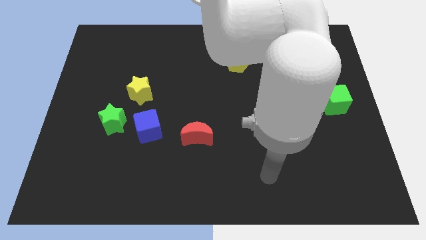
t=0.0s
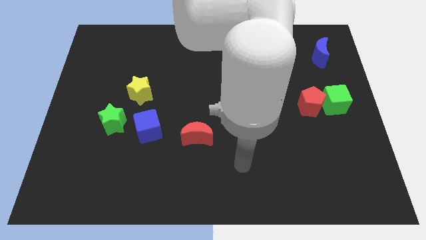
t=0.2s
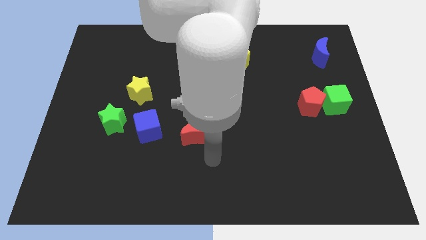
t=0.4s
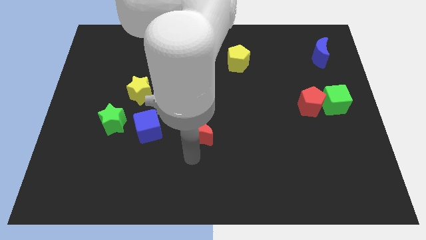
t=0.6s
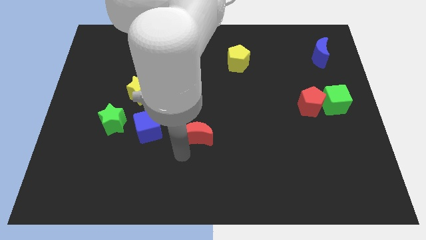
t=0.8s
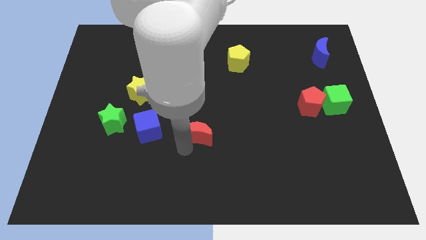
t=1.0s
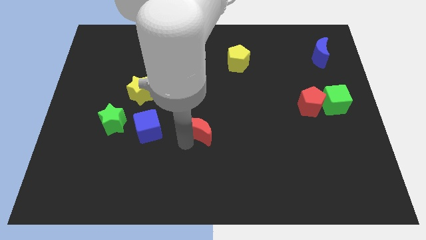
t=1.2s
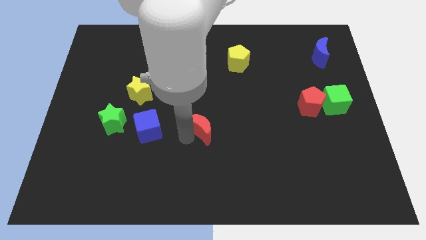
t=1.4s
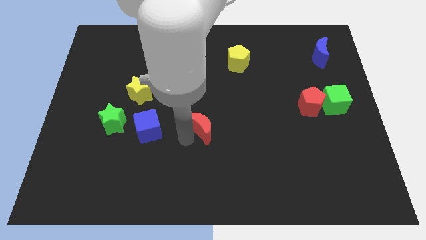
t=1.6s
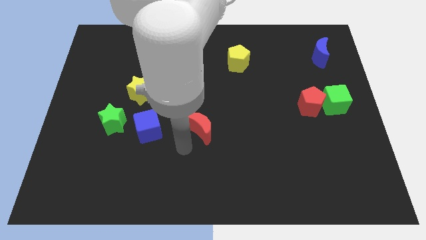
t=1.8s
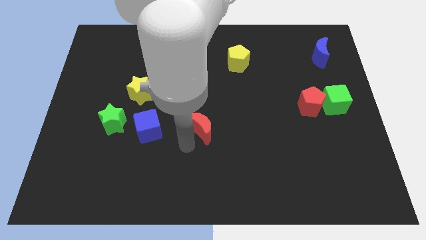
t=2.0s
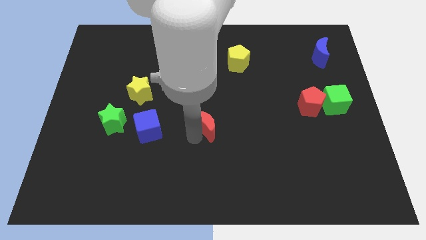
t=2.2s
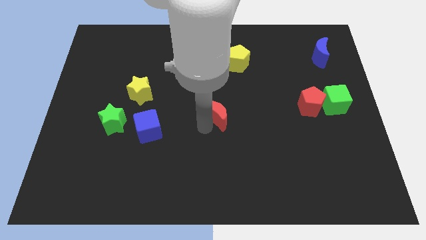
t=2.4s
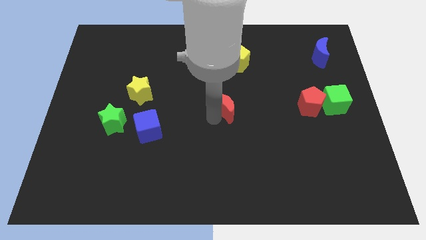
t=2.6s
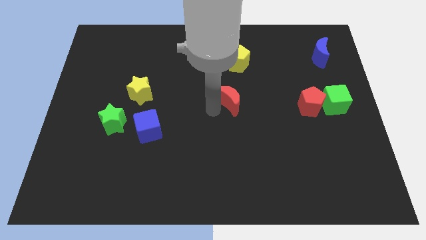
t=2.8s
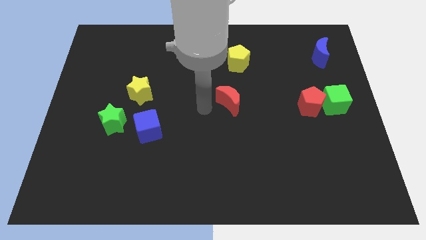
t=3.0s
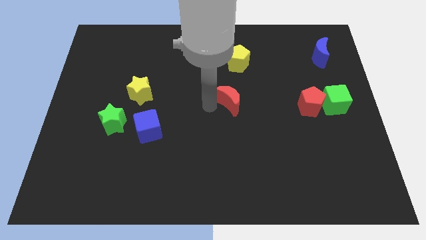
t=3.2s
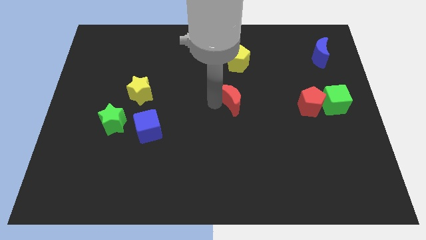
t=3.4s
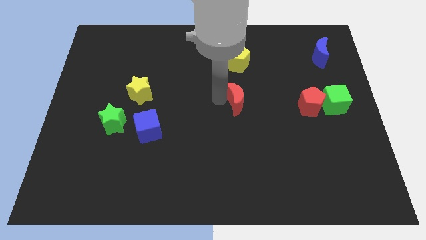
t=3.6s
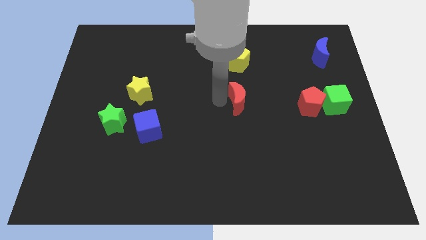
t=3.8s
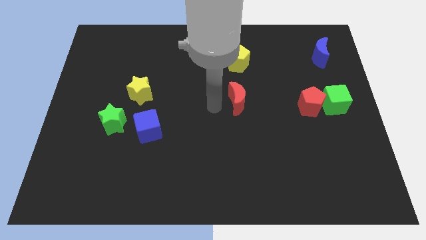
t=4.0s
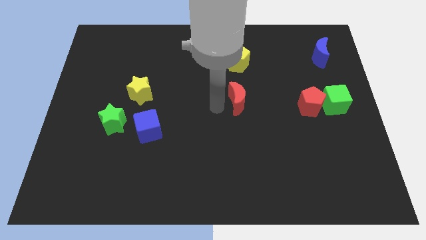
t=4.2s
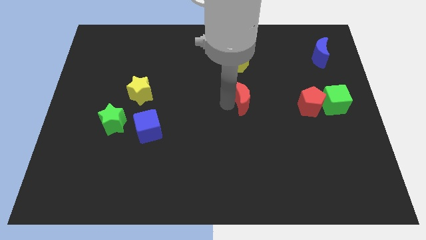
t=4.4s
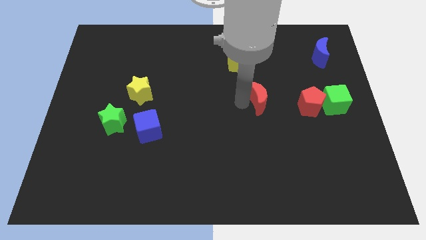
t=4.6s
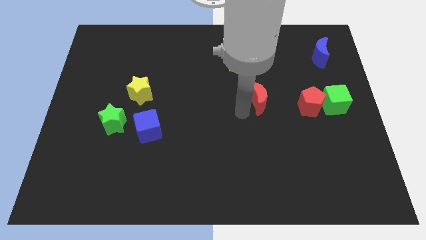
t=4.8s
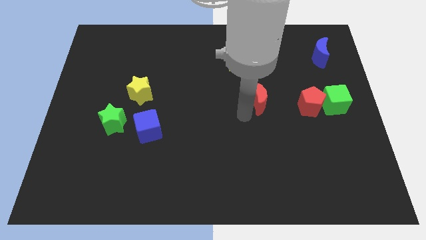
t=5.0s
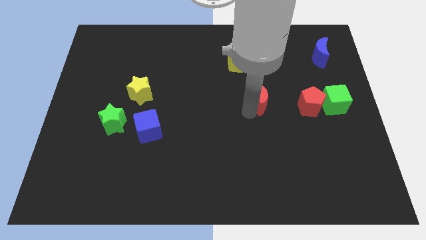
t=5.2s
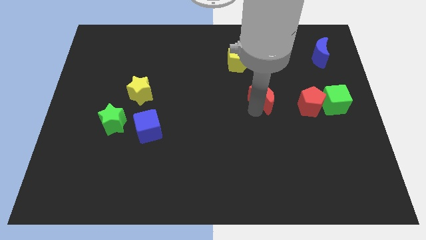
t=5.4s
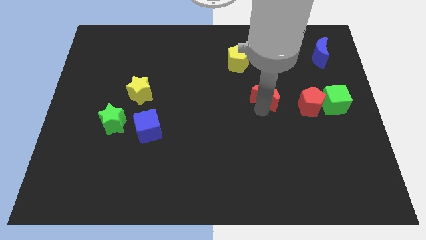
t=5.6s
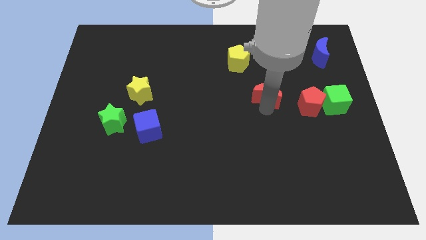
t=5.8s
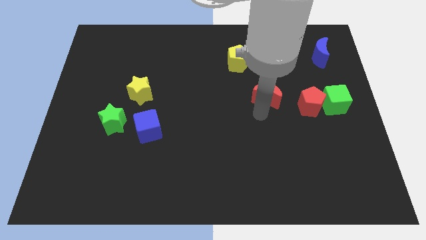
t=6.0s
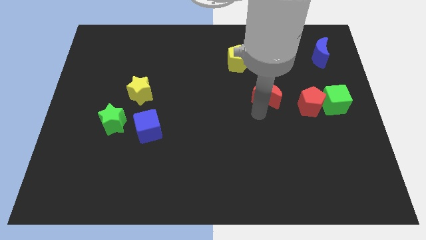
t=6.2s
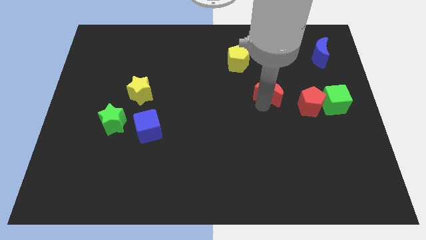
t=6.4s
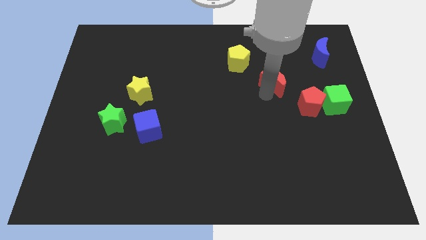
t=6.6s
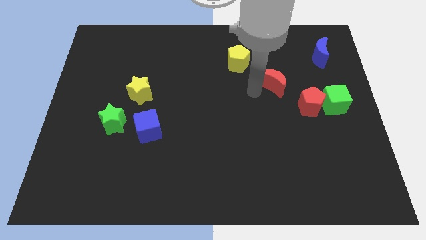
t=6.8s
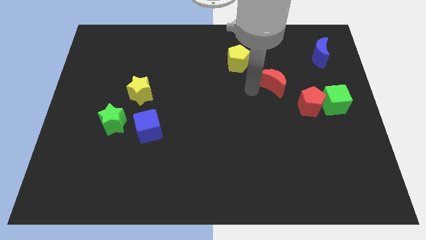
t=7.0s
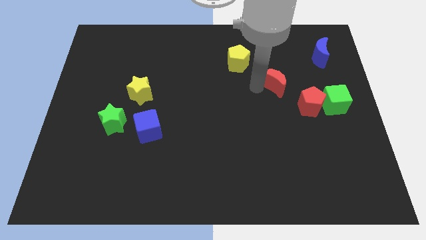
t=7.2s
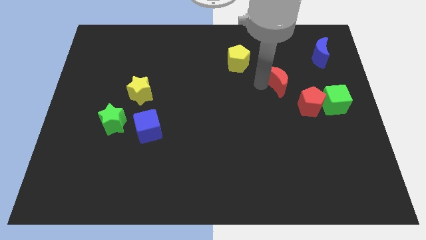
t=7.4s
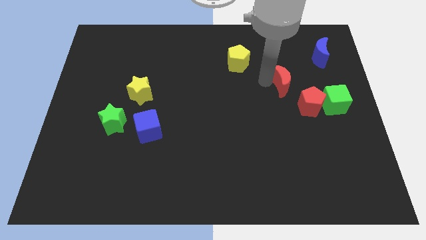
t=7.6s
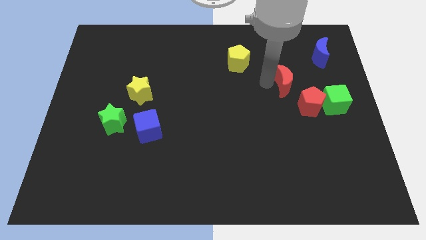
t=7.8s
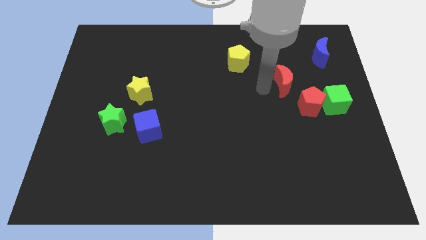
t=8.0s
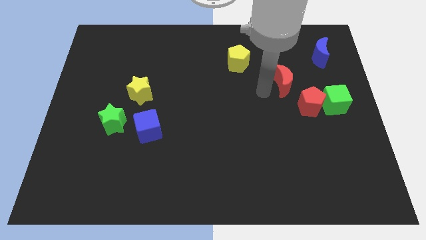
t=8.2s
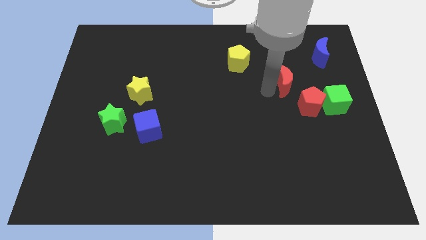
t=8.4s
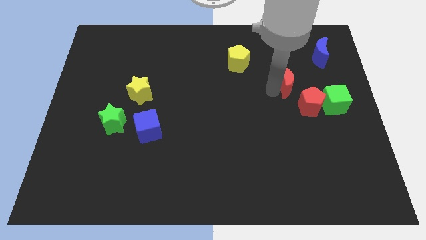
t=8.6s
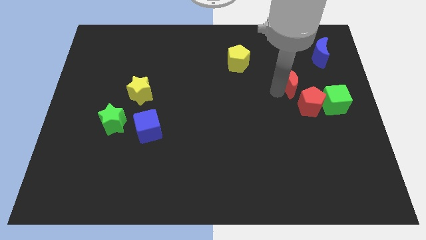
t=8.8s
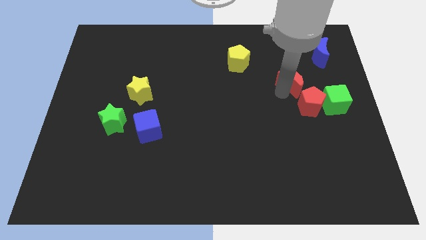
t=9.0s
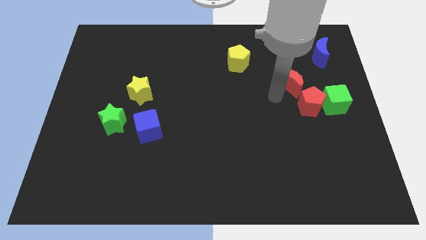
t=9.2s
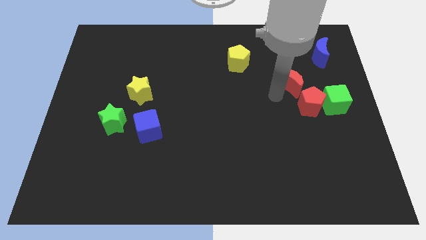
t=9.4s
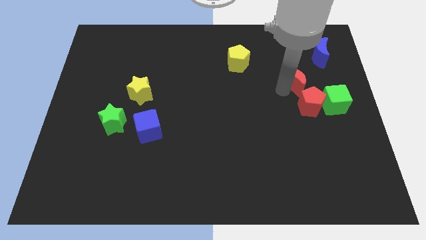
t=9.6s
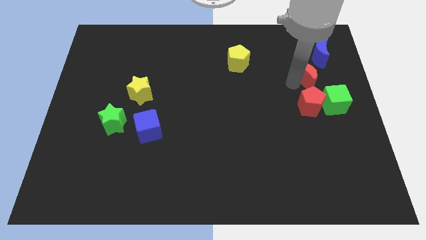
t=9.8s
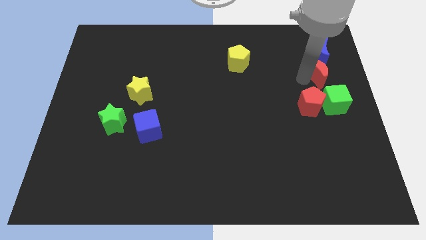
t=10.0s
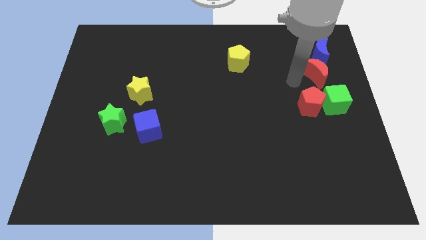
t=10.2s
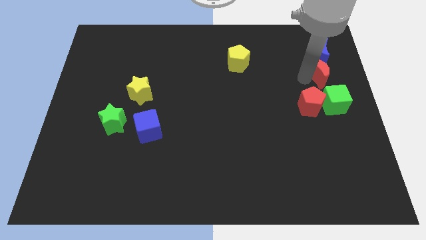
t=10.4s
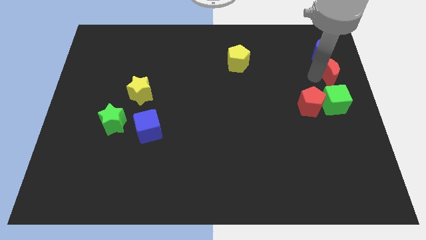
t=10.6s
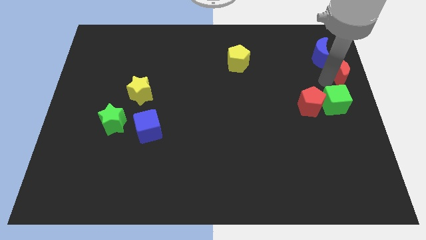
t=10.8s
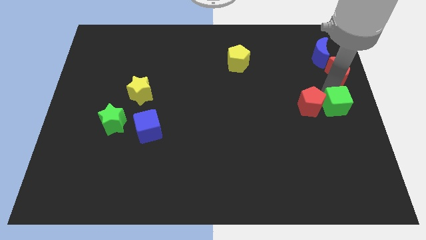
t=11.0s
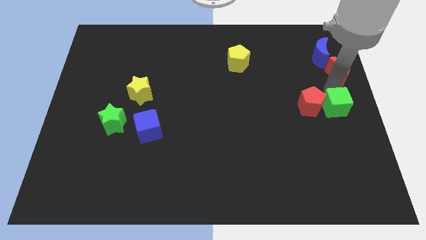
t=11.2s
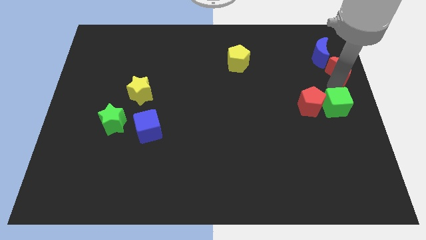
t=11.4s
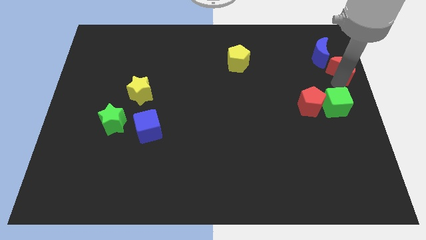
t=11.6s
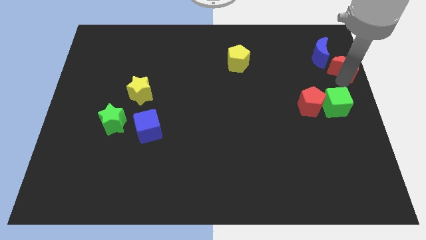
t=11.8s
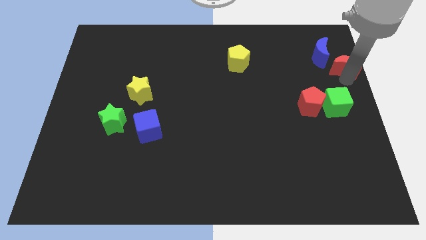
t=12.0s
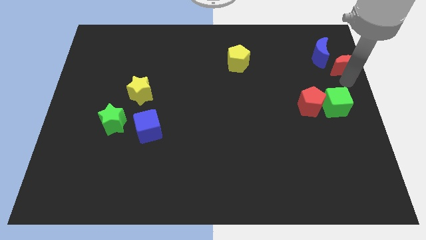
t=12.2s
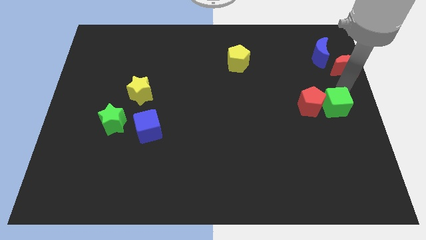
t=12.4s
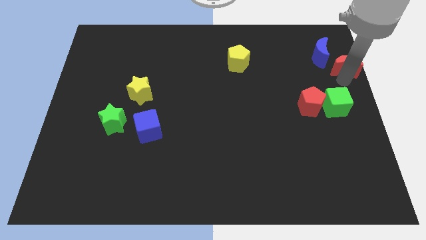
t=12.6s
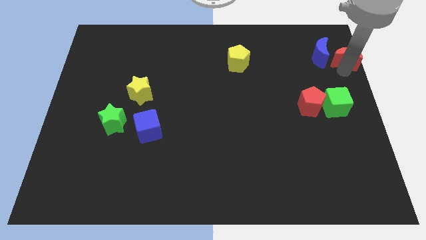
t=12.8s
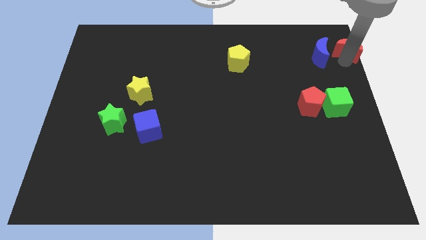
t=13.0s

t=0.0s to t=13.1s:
move the red moon to the top right
